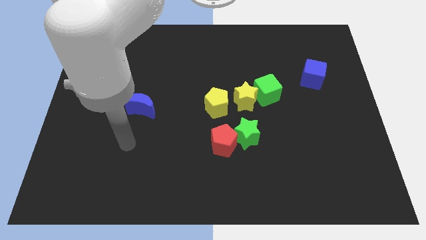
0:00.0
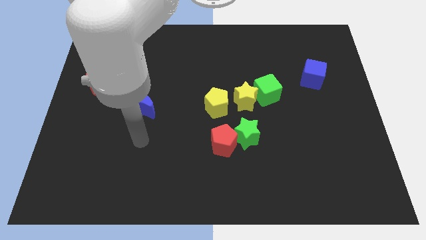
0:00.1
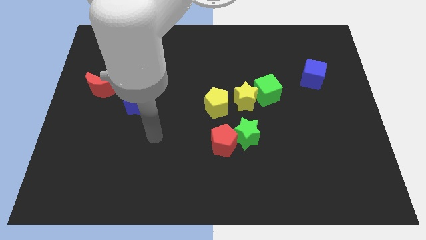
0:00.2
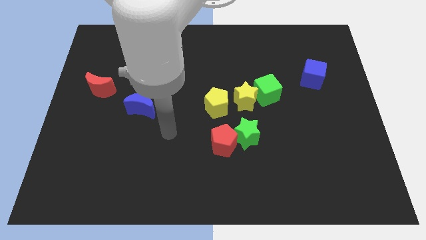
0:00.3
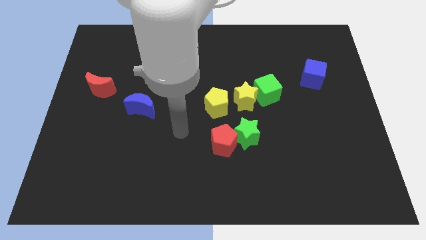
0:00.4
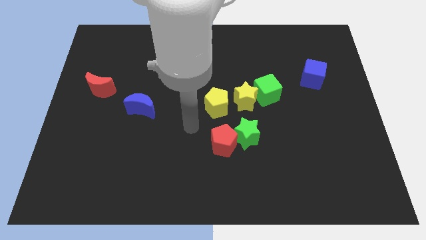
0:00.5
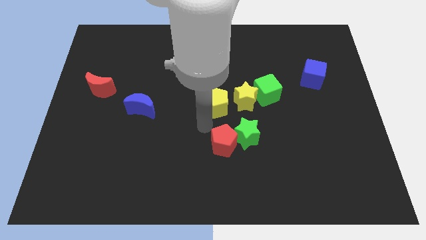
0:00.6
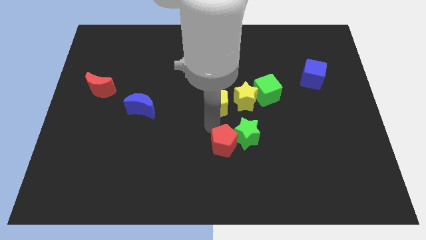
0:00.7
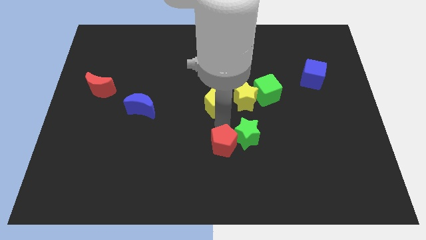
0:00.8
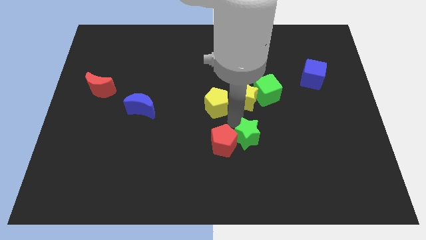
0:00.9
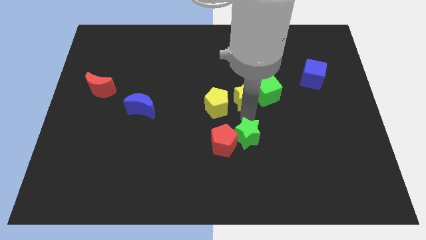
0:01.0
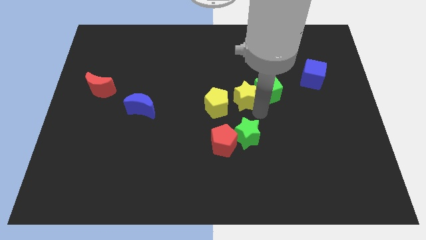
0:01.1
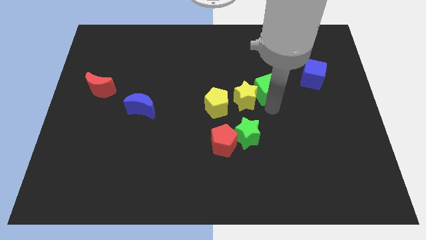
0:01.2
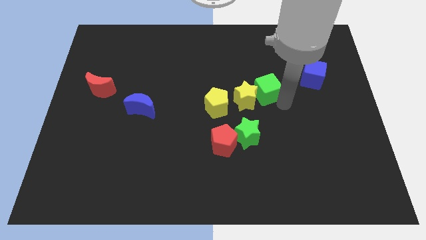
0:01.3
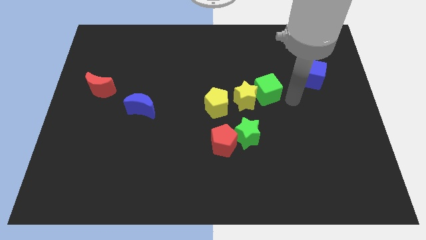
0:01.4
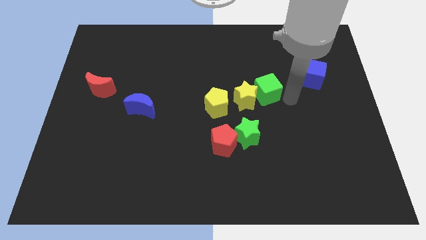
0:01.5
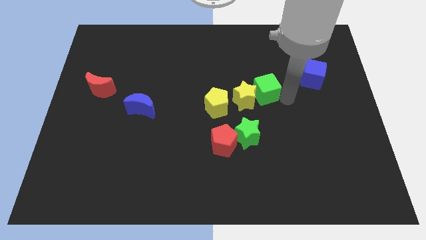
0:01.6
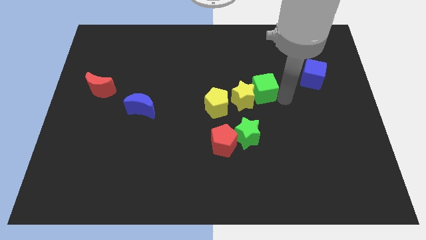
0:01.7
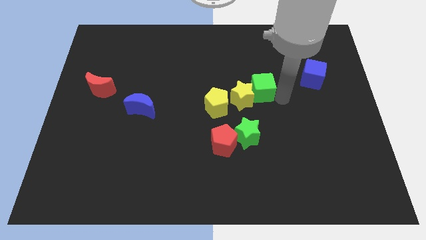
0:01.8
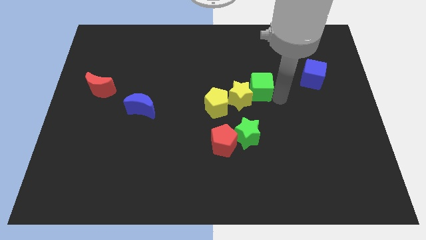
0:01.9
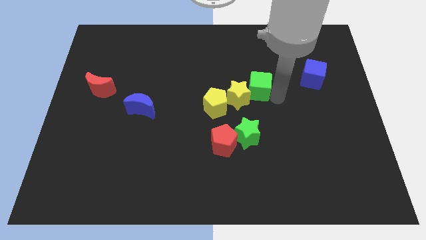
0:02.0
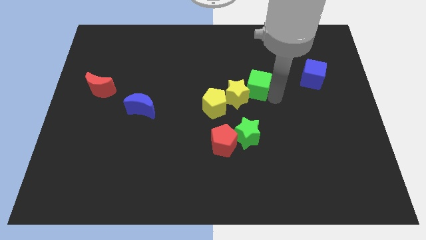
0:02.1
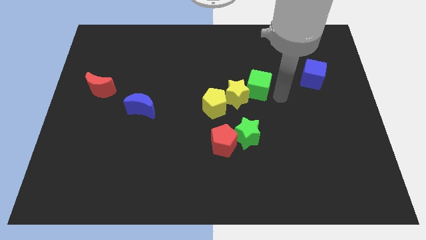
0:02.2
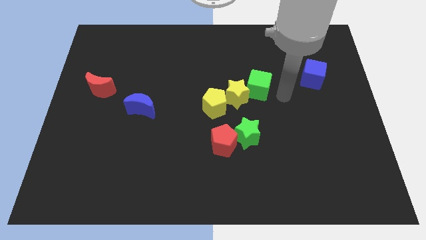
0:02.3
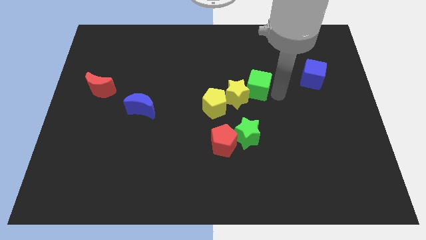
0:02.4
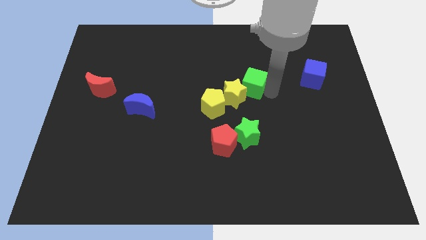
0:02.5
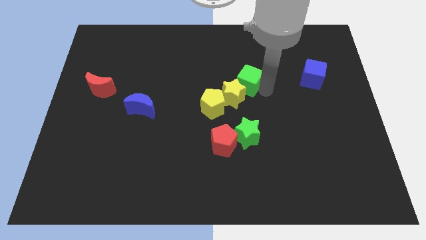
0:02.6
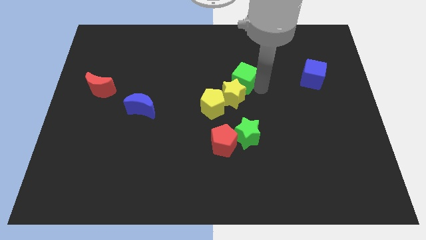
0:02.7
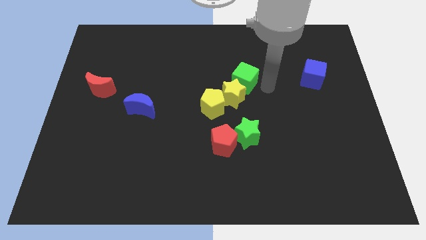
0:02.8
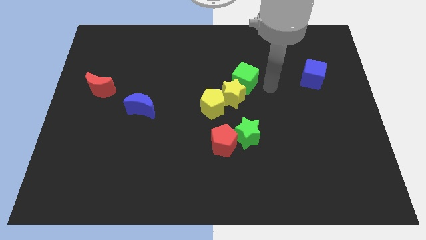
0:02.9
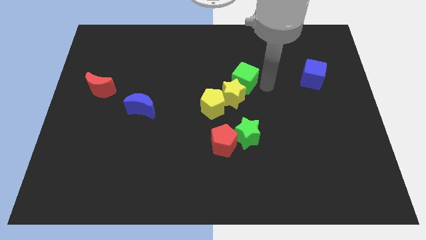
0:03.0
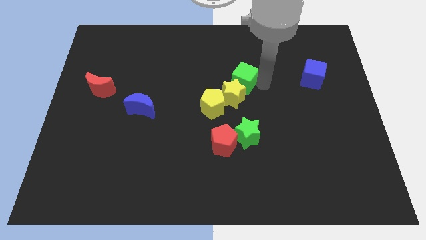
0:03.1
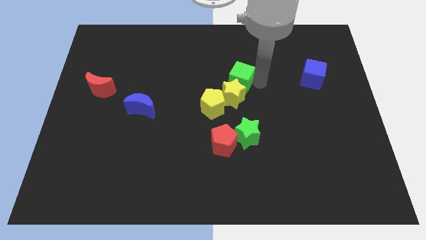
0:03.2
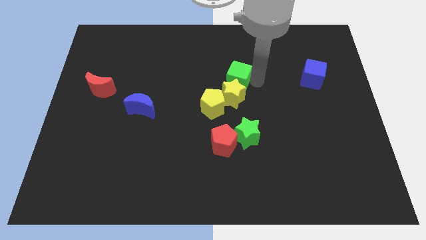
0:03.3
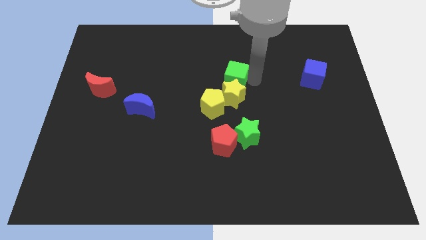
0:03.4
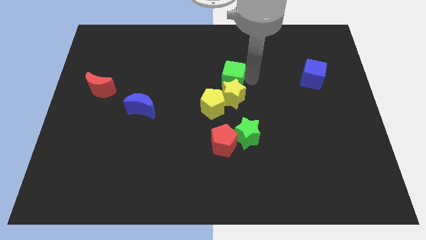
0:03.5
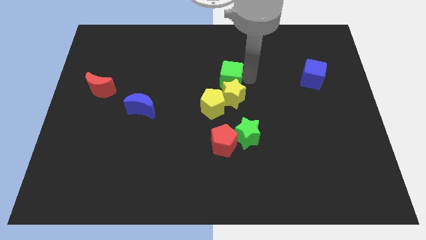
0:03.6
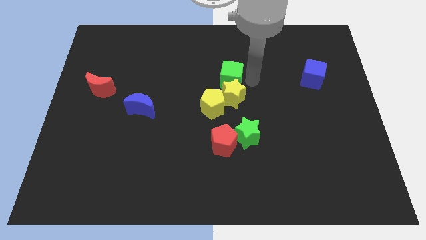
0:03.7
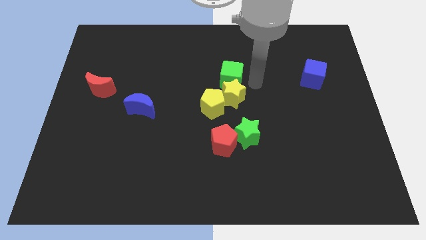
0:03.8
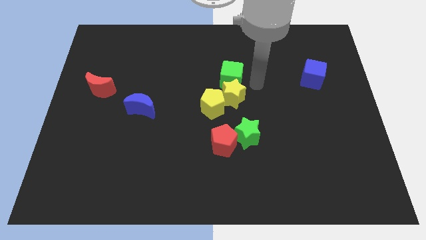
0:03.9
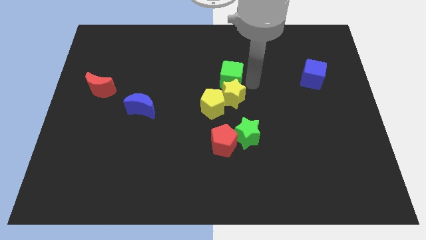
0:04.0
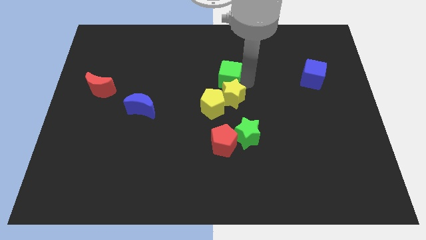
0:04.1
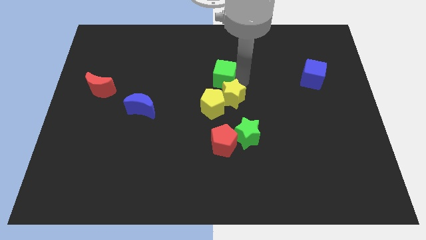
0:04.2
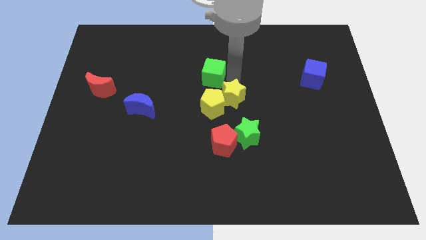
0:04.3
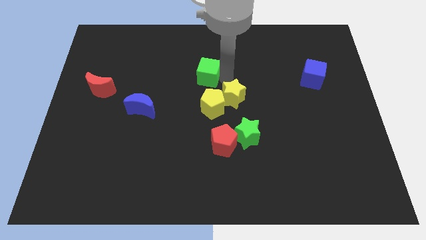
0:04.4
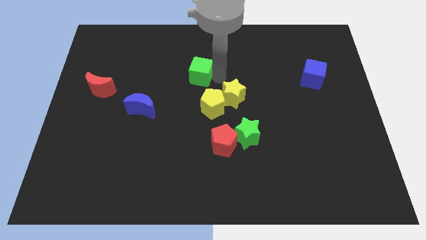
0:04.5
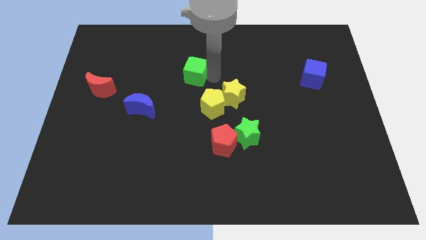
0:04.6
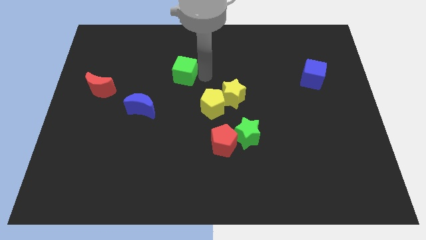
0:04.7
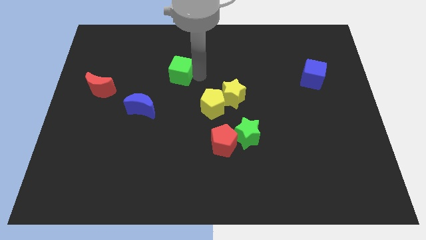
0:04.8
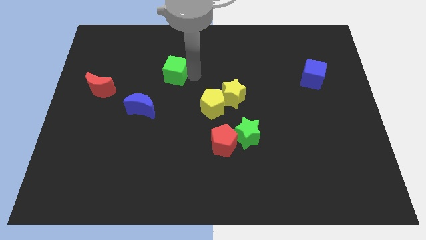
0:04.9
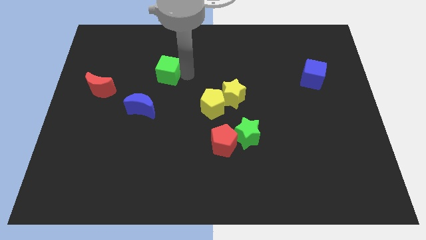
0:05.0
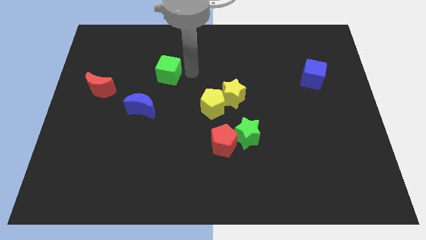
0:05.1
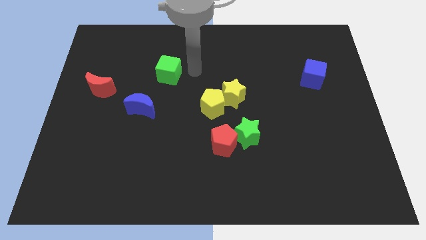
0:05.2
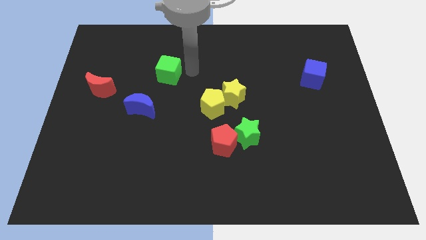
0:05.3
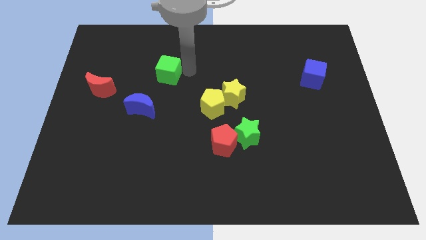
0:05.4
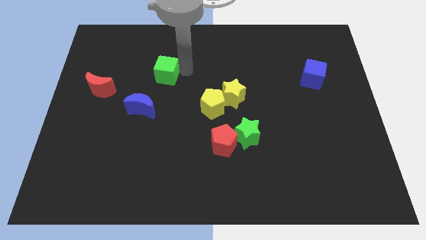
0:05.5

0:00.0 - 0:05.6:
push the green cube to the top side of the blue moon
